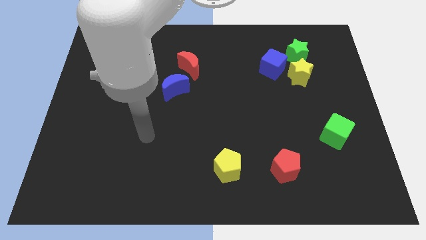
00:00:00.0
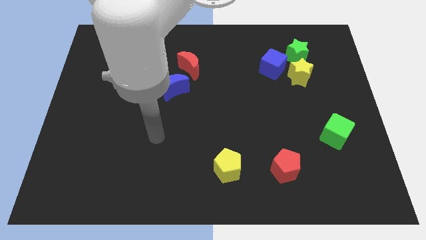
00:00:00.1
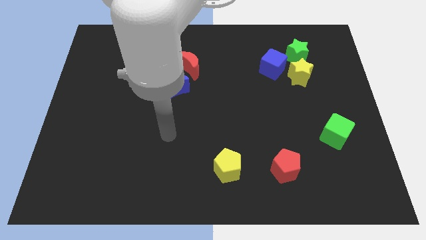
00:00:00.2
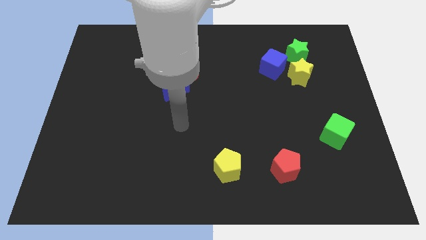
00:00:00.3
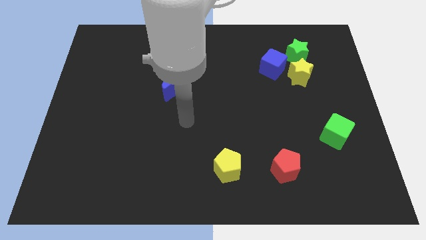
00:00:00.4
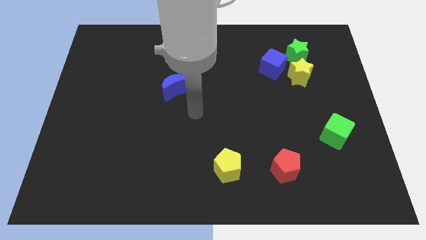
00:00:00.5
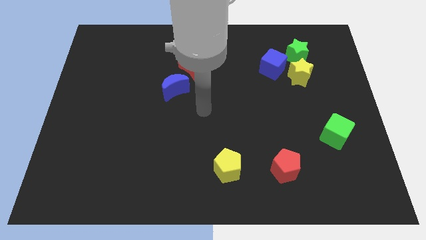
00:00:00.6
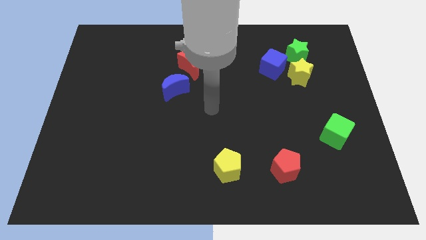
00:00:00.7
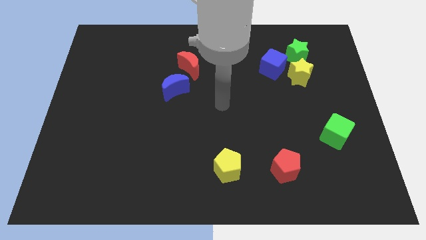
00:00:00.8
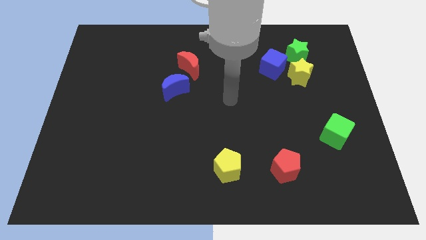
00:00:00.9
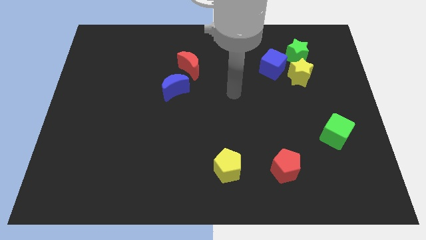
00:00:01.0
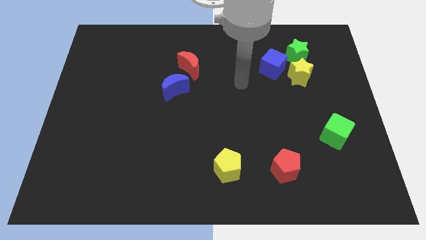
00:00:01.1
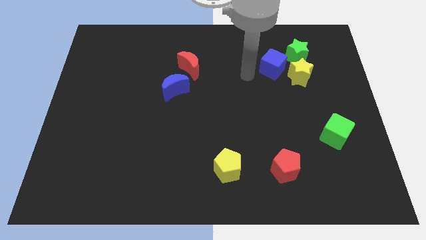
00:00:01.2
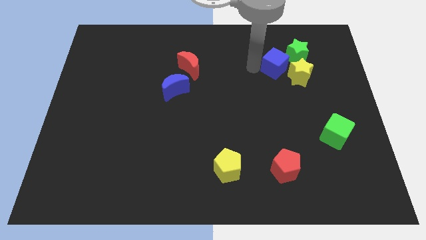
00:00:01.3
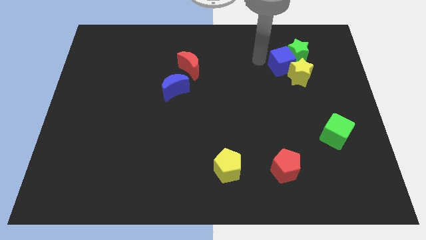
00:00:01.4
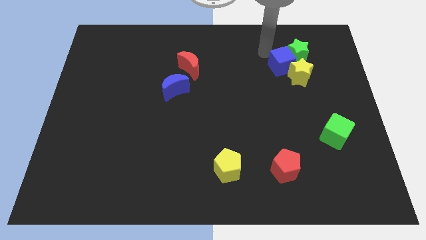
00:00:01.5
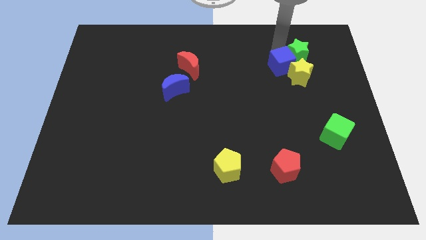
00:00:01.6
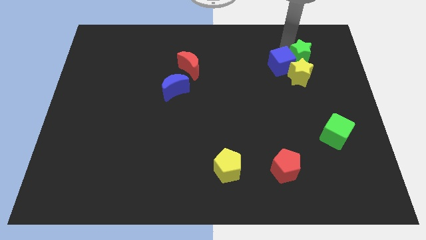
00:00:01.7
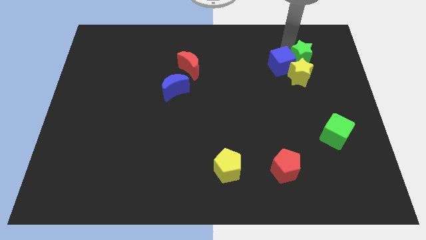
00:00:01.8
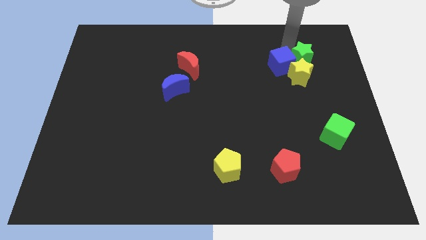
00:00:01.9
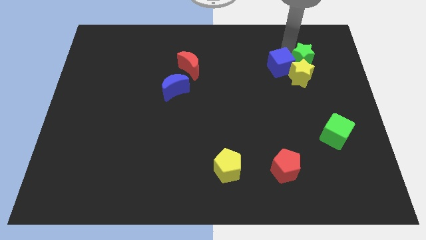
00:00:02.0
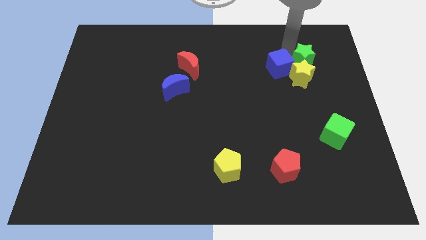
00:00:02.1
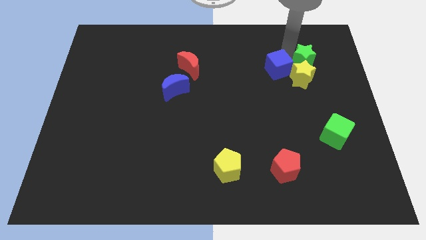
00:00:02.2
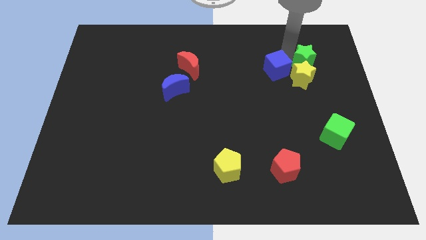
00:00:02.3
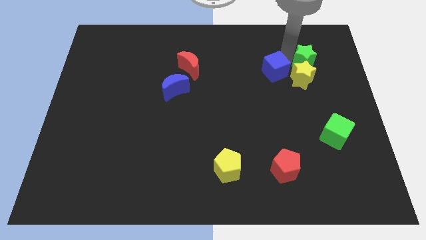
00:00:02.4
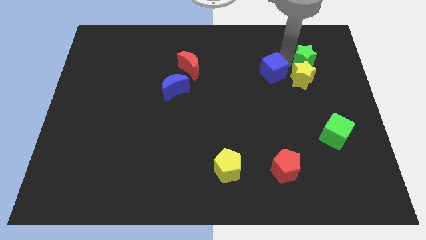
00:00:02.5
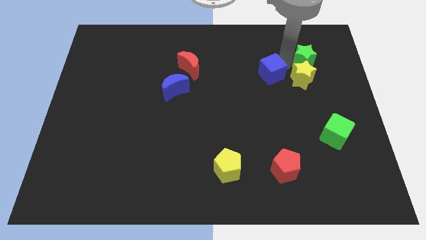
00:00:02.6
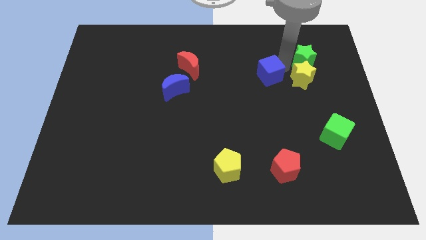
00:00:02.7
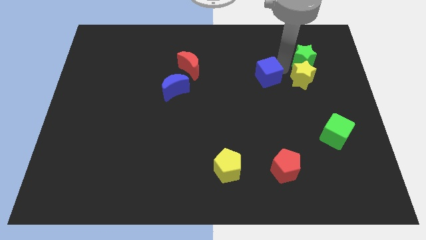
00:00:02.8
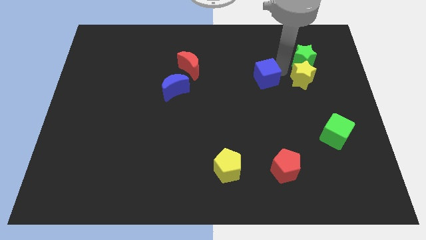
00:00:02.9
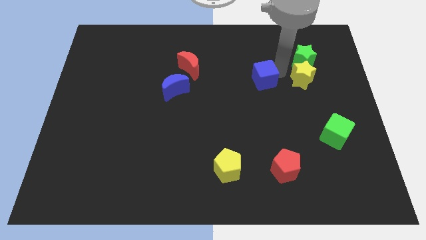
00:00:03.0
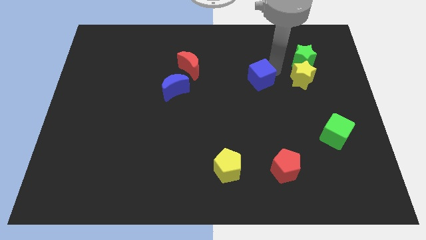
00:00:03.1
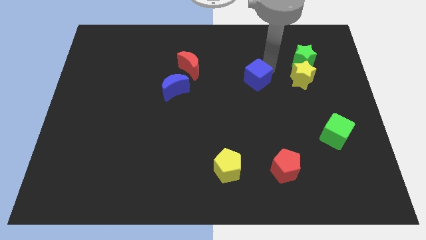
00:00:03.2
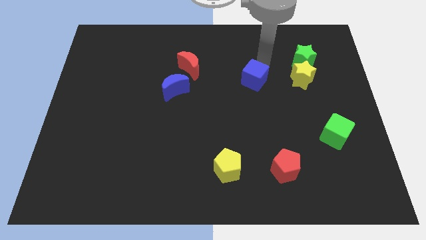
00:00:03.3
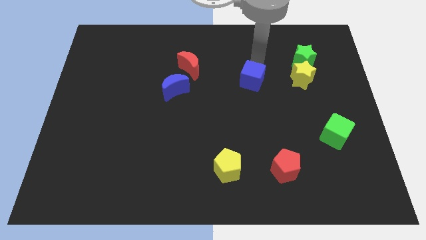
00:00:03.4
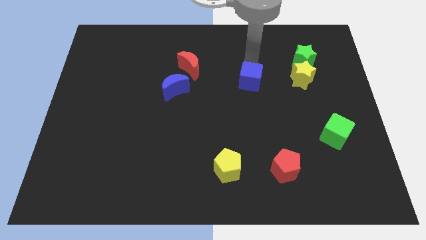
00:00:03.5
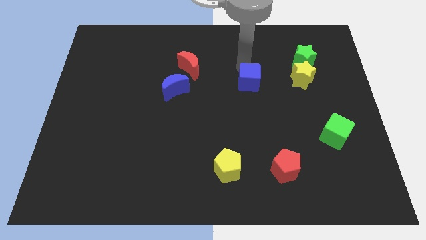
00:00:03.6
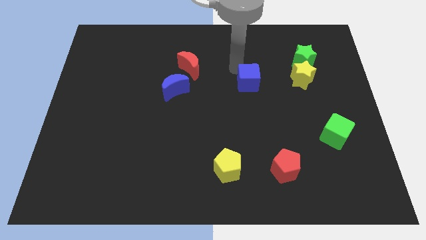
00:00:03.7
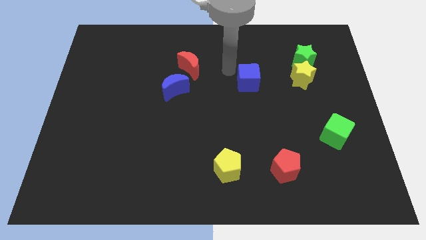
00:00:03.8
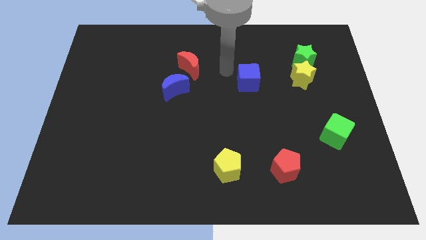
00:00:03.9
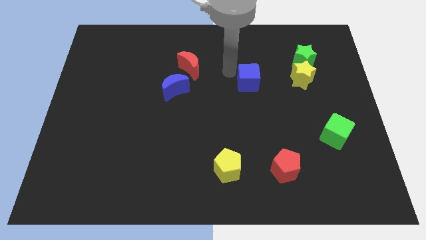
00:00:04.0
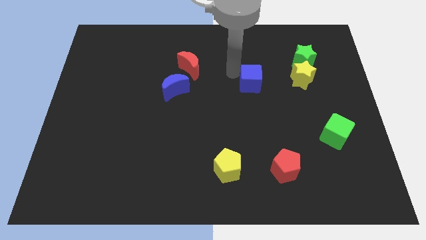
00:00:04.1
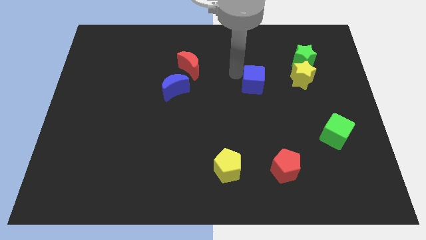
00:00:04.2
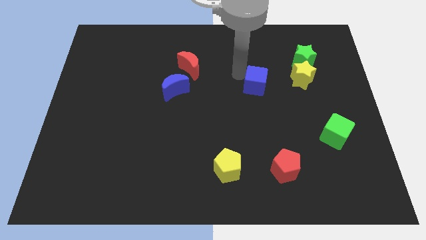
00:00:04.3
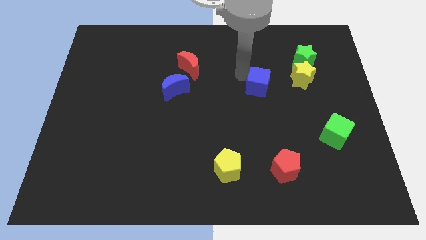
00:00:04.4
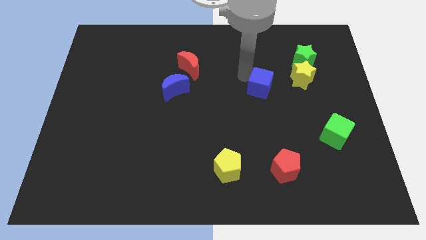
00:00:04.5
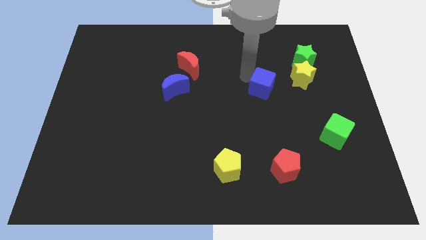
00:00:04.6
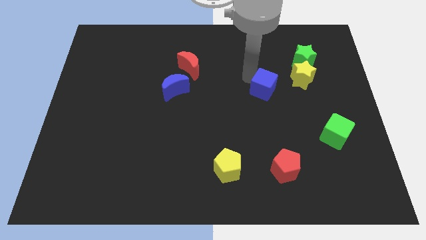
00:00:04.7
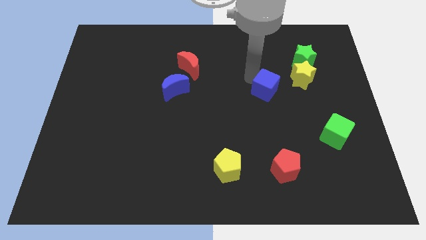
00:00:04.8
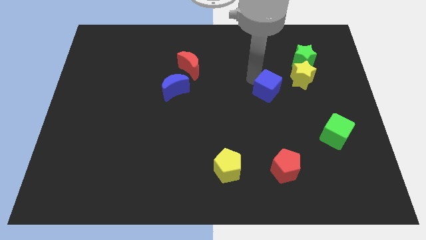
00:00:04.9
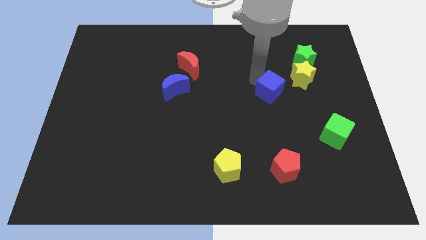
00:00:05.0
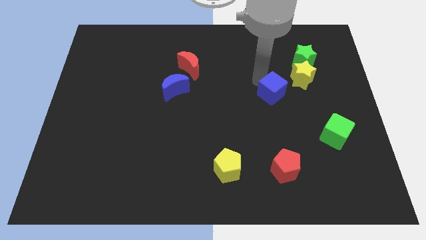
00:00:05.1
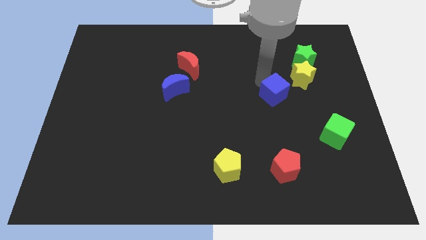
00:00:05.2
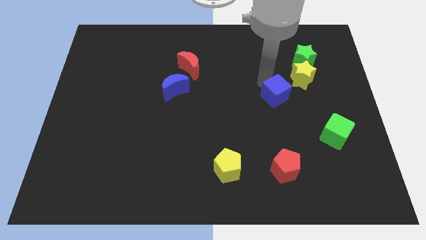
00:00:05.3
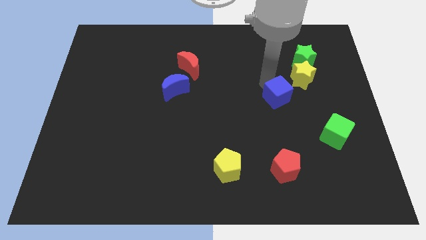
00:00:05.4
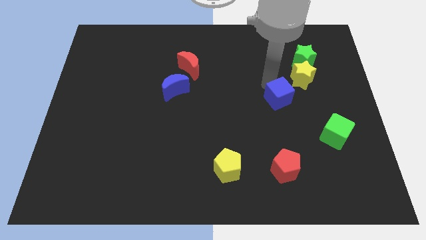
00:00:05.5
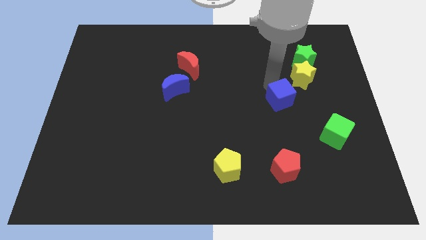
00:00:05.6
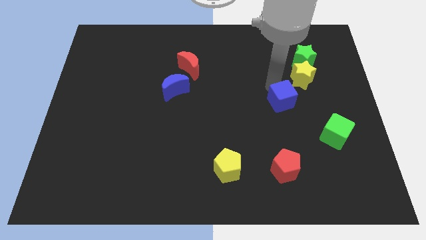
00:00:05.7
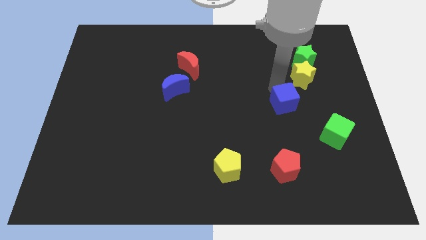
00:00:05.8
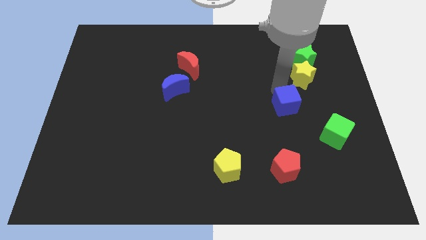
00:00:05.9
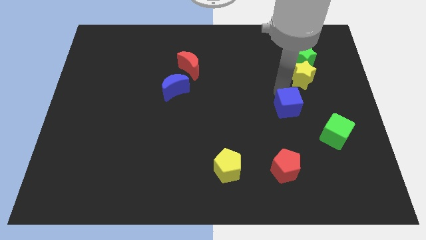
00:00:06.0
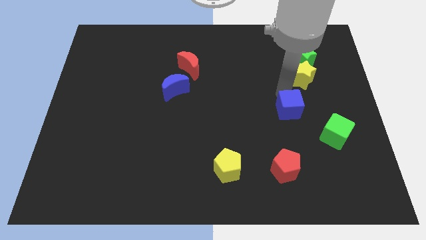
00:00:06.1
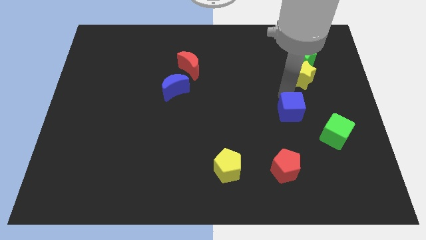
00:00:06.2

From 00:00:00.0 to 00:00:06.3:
push the blue cube to the top of the red pentagon

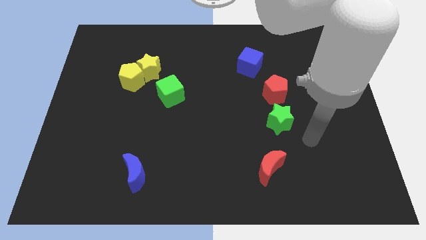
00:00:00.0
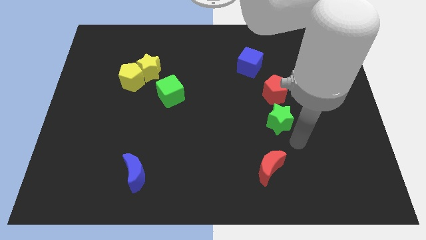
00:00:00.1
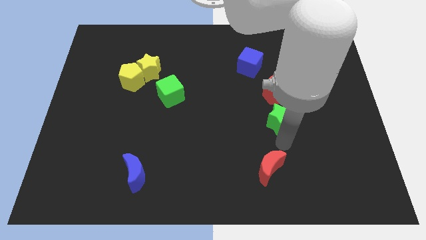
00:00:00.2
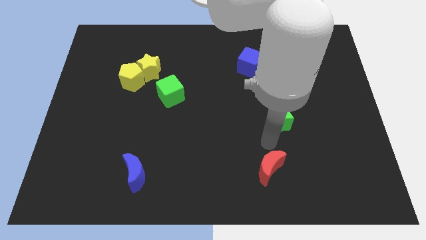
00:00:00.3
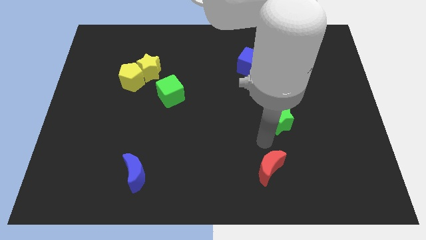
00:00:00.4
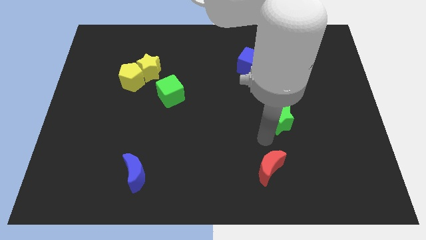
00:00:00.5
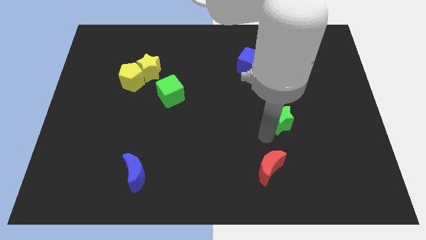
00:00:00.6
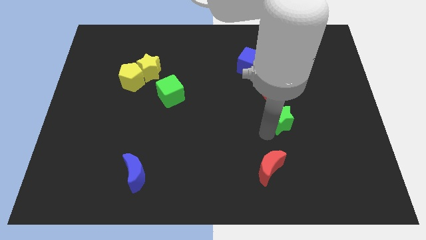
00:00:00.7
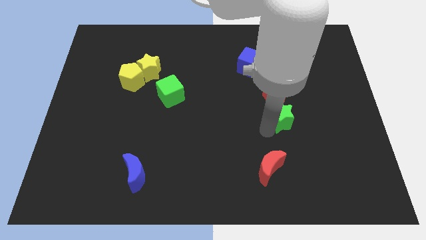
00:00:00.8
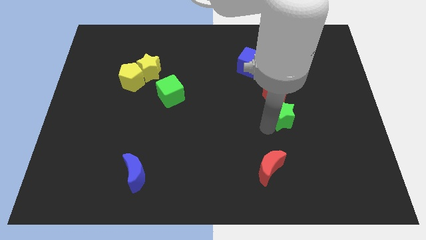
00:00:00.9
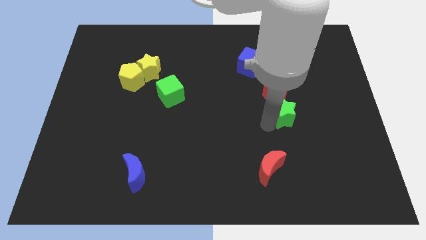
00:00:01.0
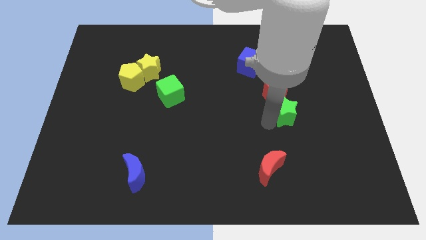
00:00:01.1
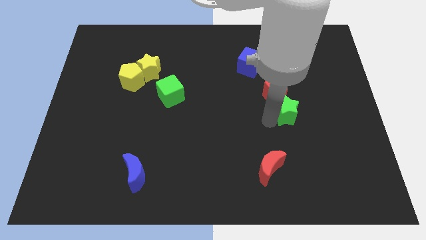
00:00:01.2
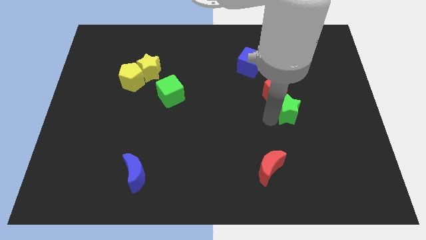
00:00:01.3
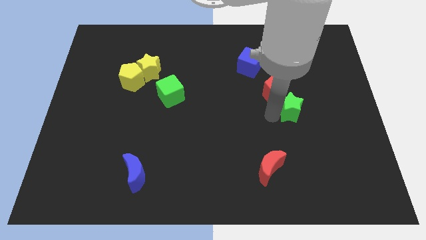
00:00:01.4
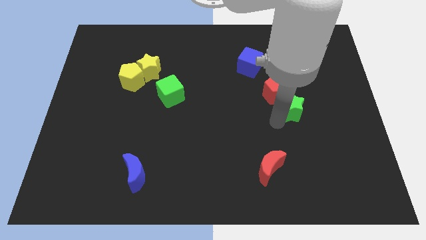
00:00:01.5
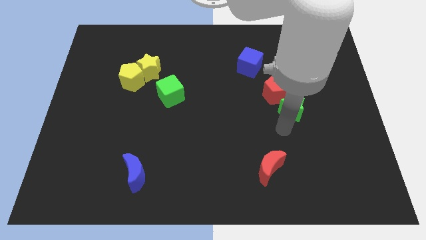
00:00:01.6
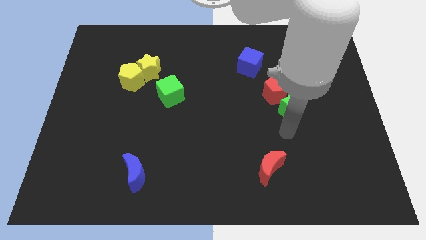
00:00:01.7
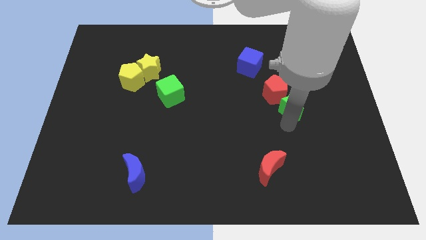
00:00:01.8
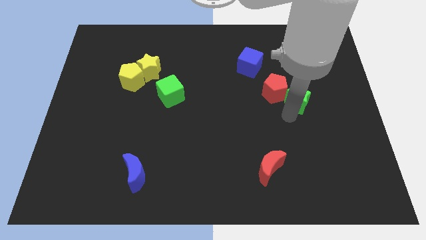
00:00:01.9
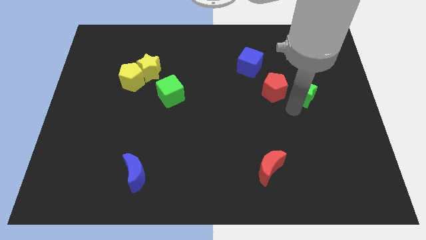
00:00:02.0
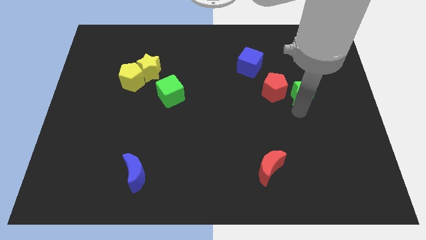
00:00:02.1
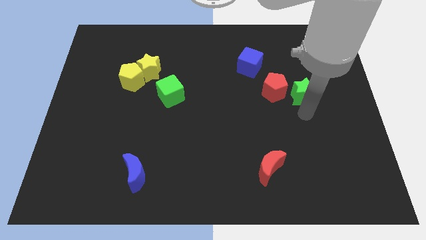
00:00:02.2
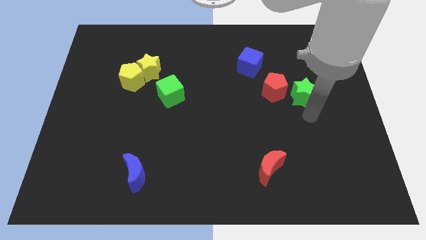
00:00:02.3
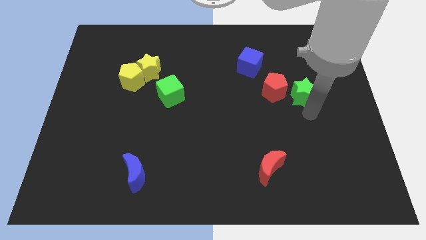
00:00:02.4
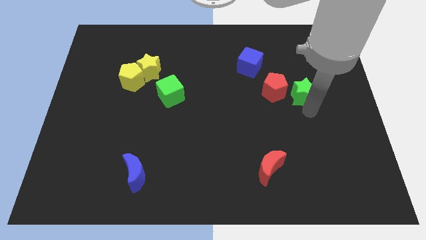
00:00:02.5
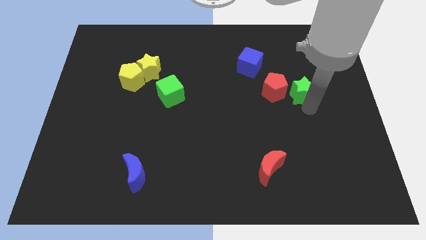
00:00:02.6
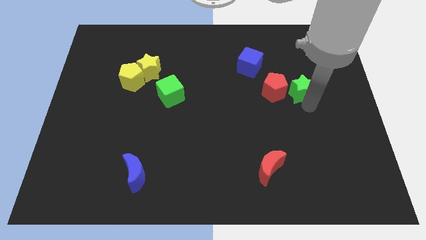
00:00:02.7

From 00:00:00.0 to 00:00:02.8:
slide the green star to the top right of the red pentagon
